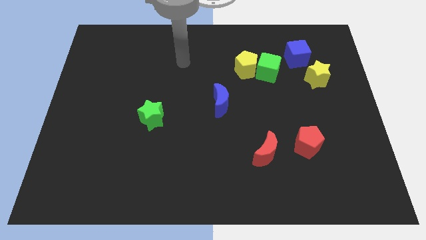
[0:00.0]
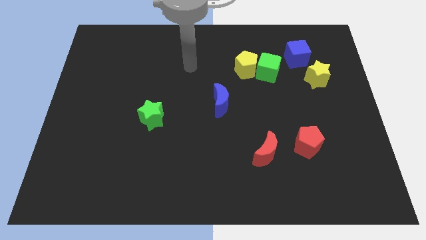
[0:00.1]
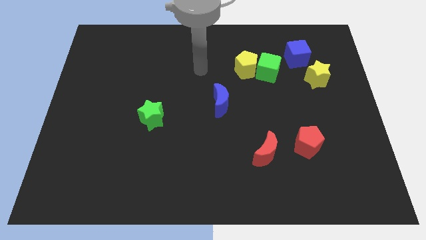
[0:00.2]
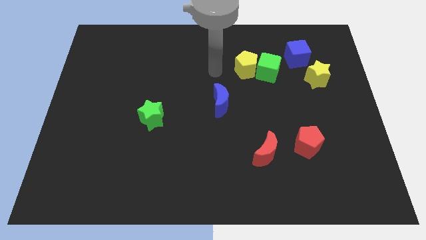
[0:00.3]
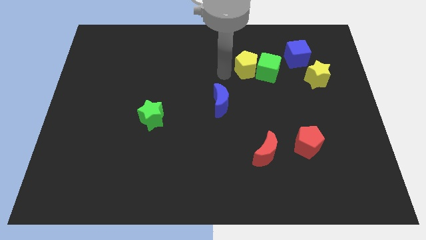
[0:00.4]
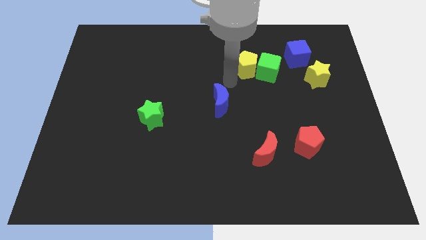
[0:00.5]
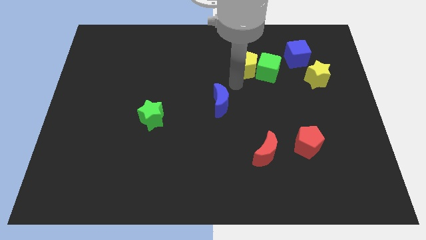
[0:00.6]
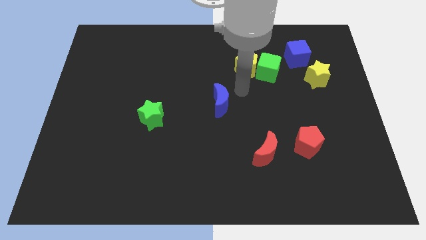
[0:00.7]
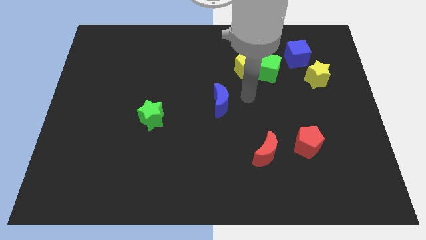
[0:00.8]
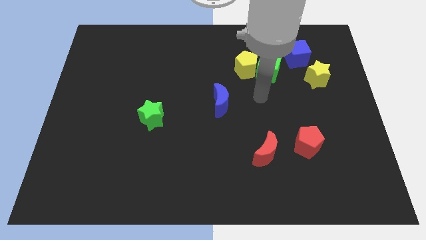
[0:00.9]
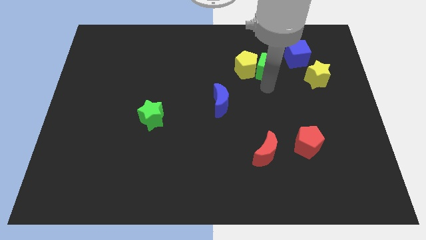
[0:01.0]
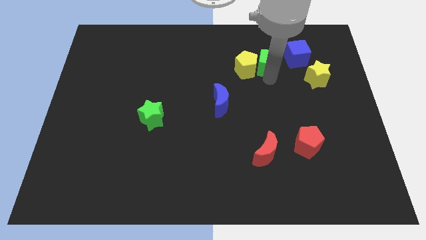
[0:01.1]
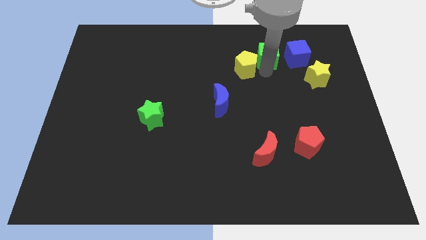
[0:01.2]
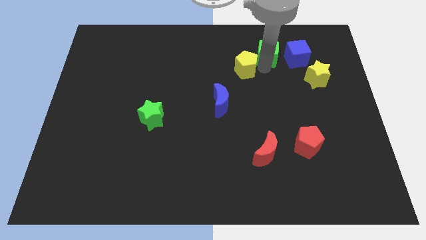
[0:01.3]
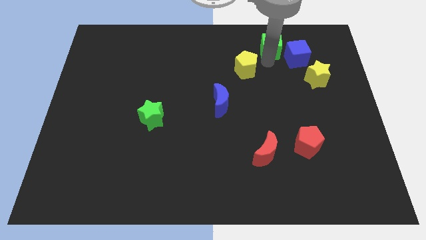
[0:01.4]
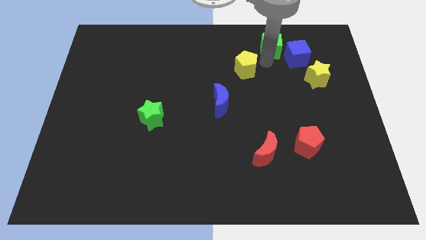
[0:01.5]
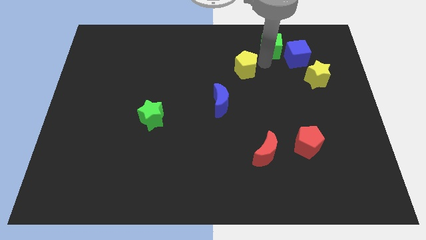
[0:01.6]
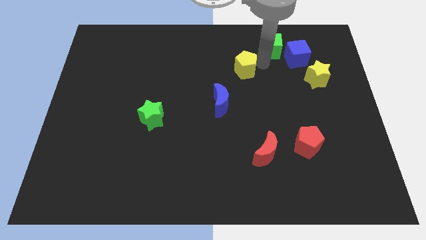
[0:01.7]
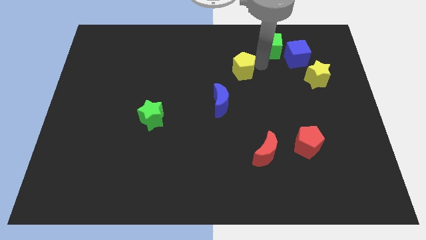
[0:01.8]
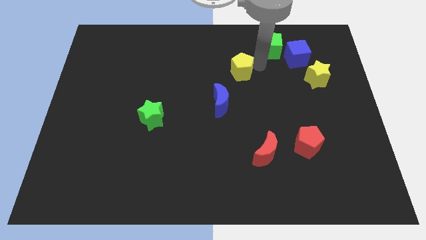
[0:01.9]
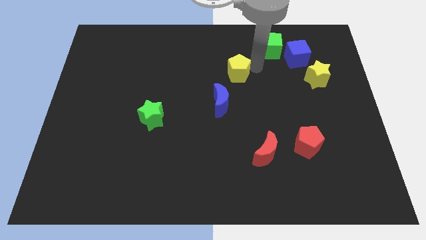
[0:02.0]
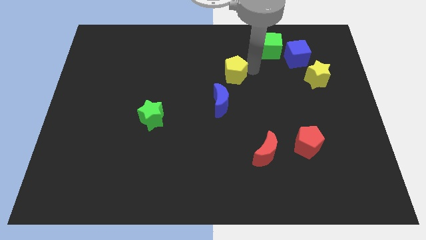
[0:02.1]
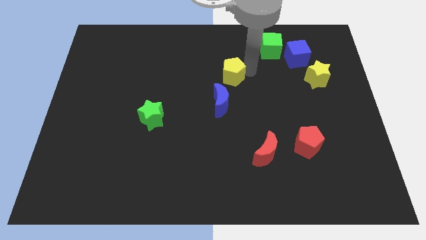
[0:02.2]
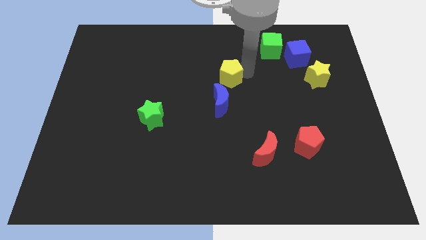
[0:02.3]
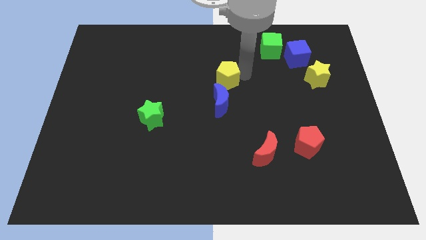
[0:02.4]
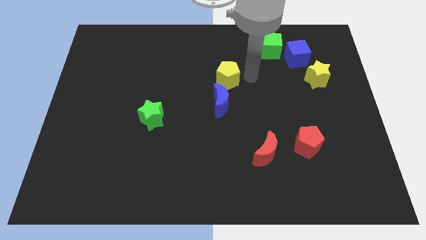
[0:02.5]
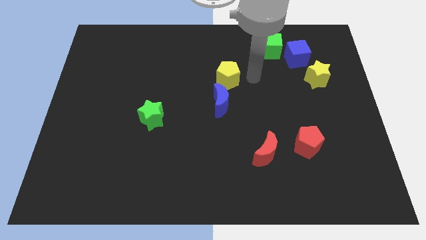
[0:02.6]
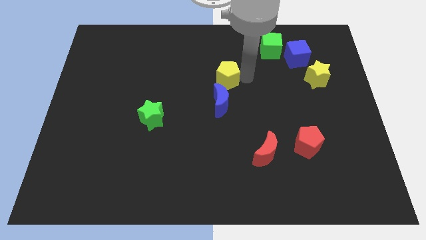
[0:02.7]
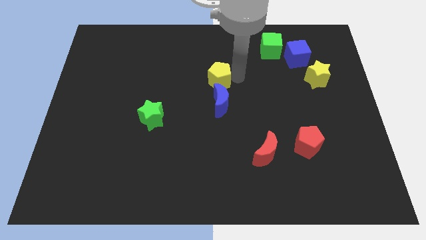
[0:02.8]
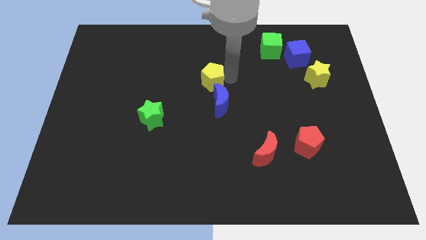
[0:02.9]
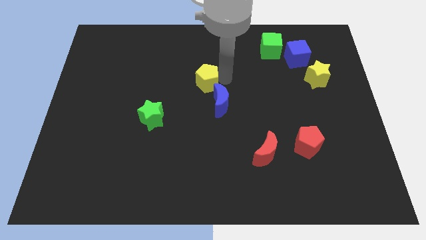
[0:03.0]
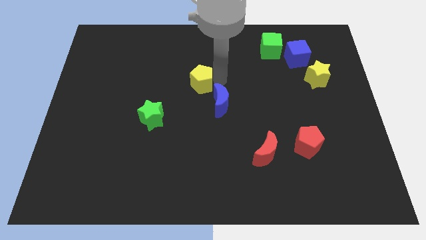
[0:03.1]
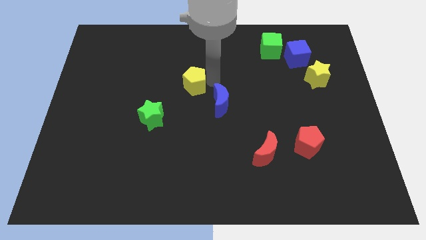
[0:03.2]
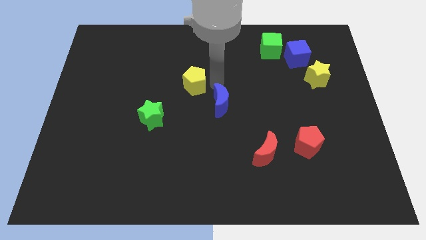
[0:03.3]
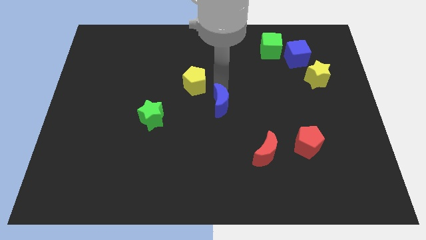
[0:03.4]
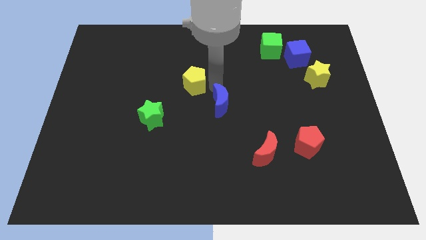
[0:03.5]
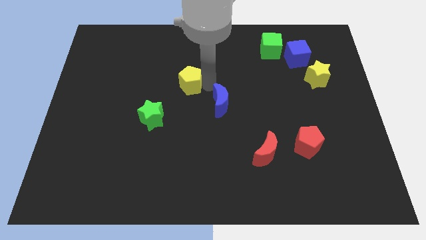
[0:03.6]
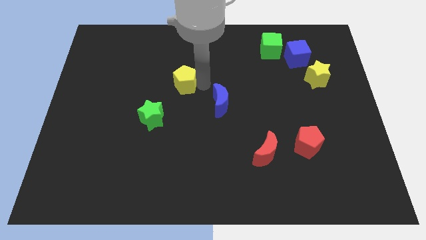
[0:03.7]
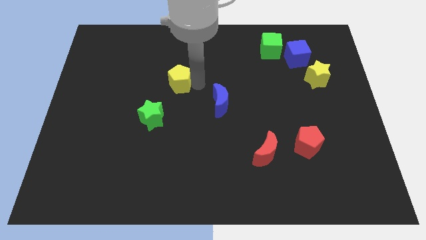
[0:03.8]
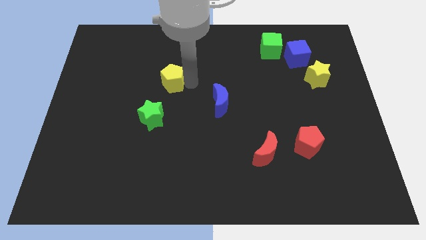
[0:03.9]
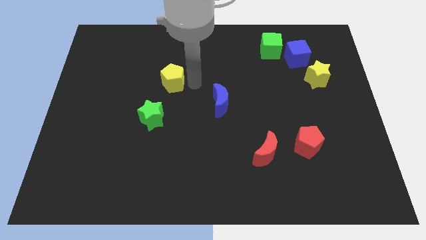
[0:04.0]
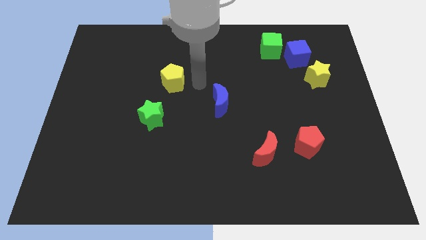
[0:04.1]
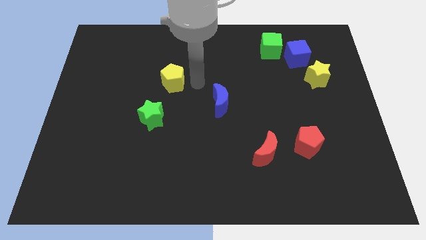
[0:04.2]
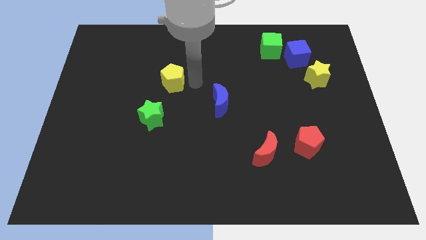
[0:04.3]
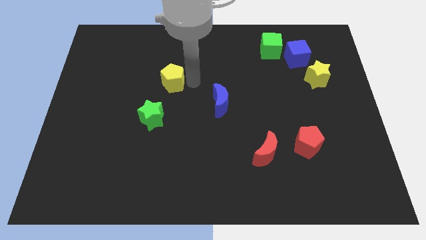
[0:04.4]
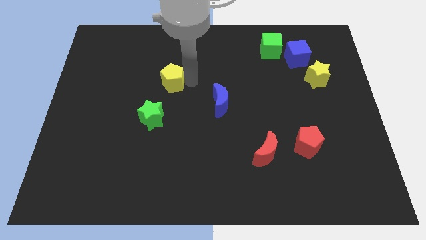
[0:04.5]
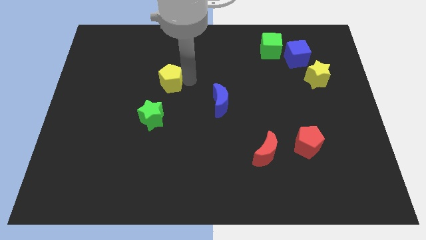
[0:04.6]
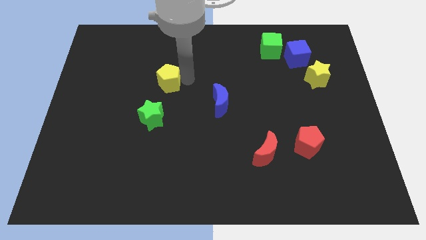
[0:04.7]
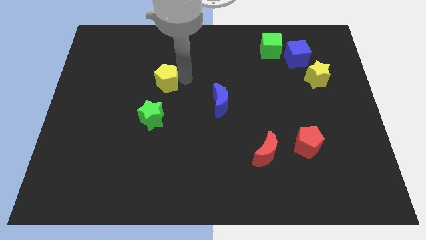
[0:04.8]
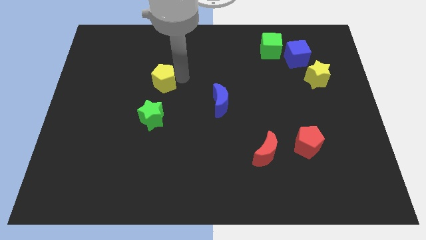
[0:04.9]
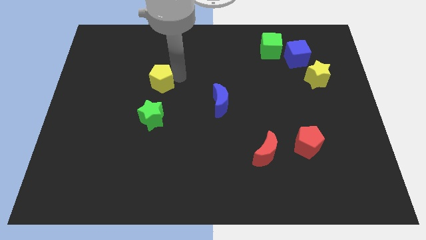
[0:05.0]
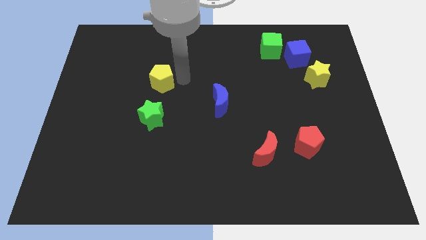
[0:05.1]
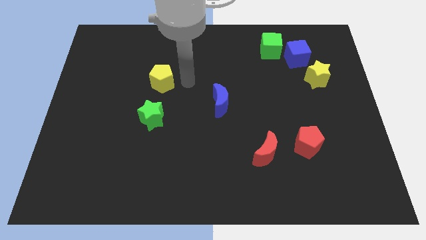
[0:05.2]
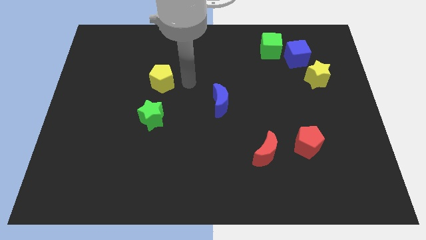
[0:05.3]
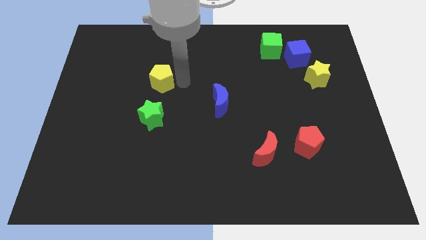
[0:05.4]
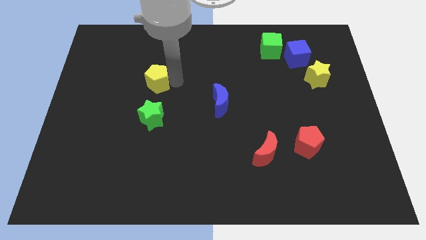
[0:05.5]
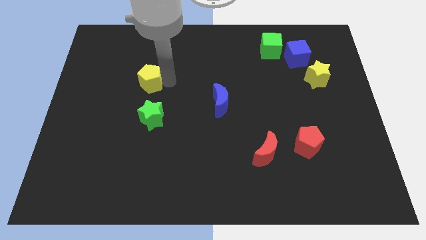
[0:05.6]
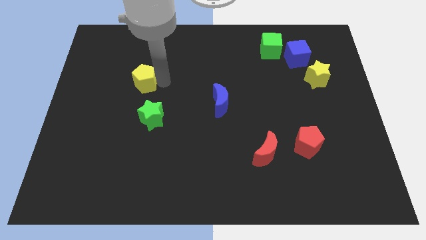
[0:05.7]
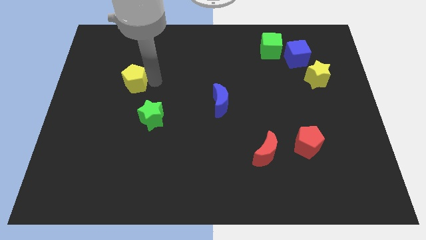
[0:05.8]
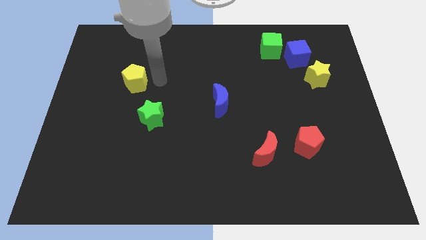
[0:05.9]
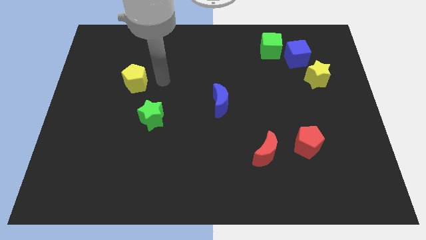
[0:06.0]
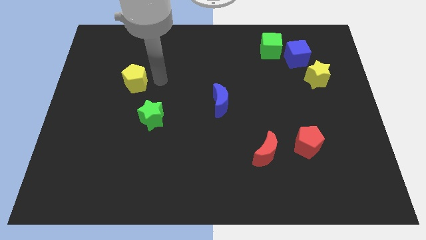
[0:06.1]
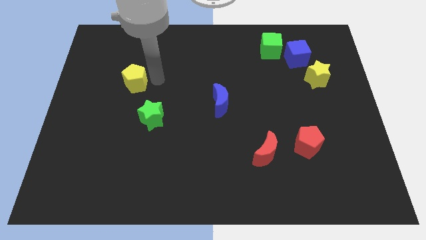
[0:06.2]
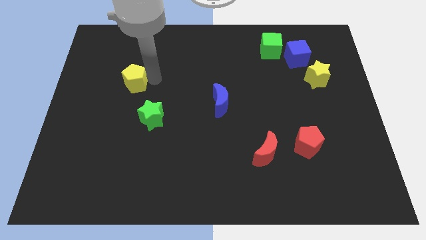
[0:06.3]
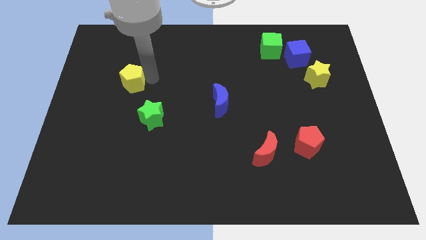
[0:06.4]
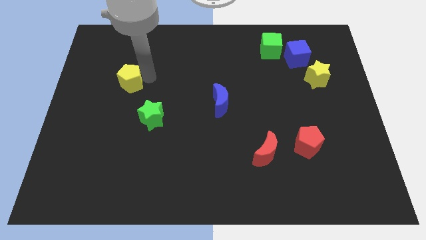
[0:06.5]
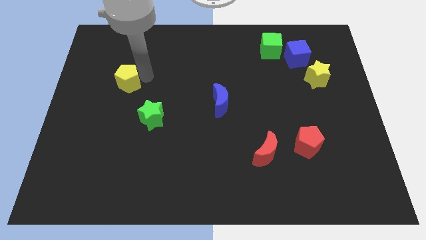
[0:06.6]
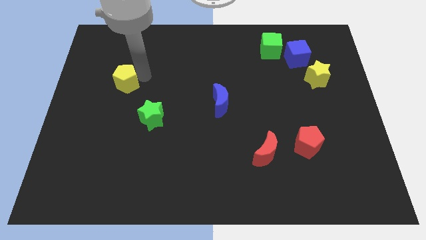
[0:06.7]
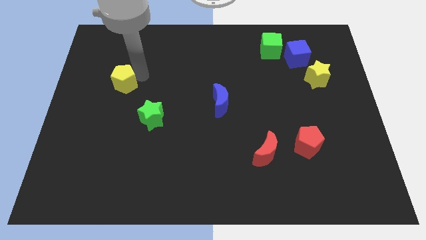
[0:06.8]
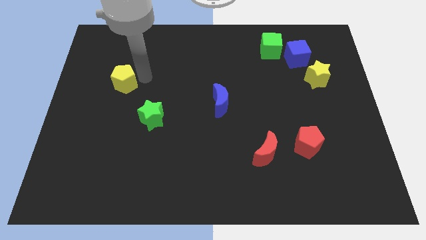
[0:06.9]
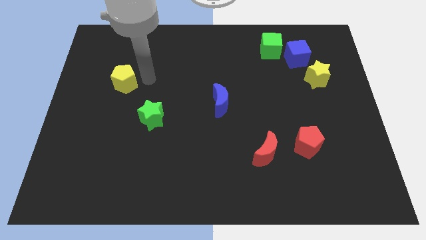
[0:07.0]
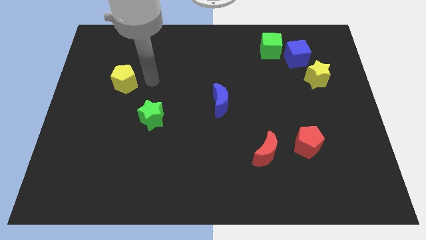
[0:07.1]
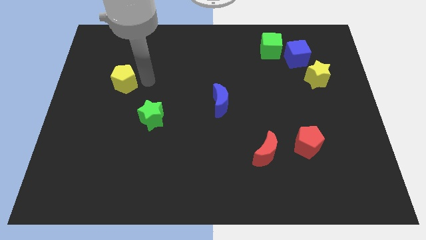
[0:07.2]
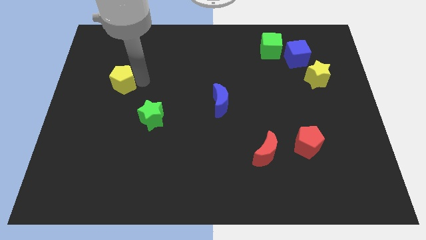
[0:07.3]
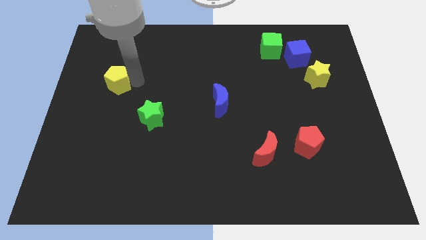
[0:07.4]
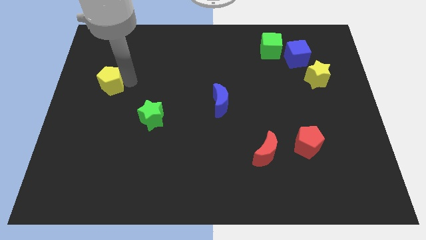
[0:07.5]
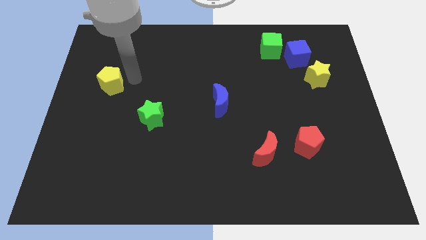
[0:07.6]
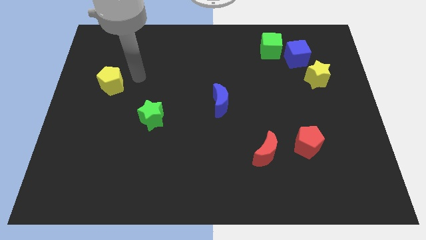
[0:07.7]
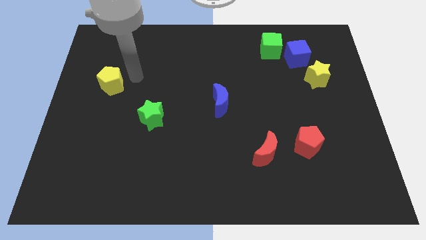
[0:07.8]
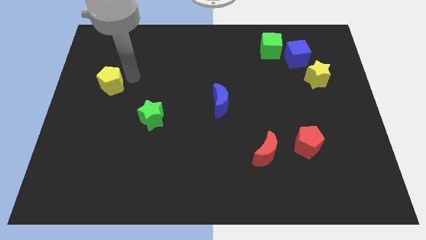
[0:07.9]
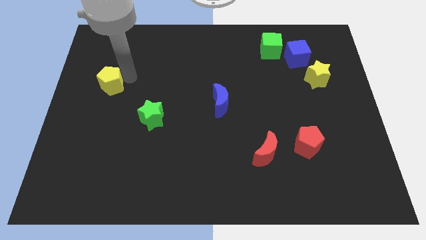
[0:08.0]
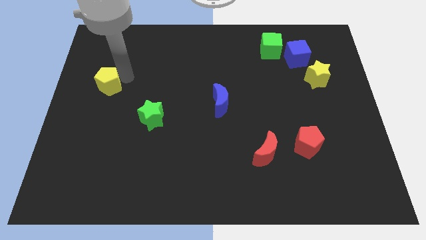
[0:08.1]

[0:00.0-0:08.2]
move the yellow pentagon to the left side of the board
